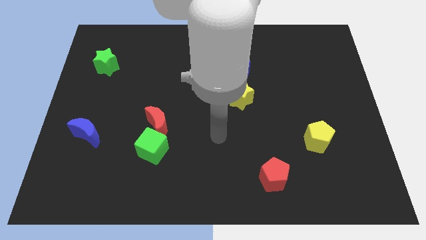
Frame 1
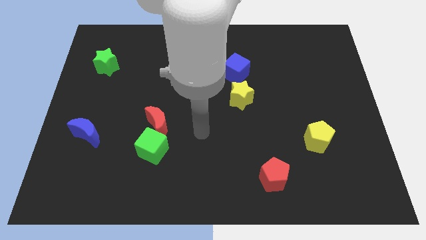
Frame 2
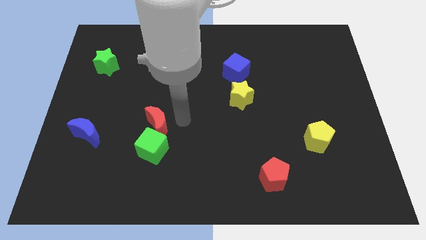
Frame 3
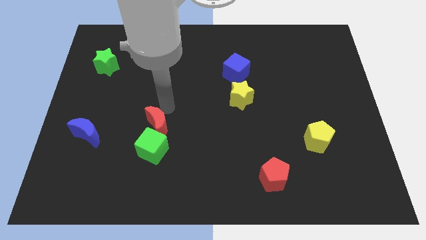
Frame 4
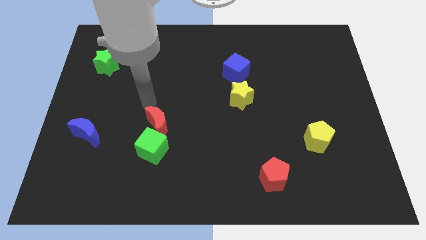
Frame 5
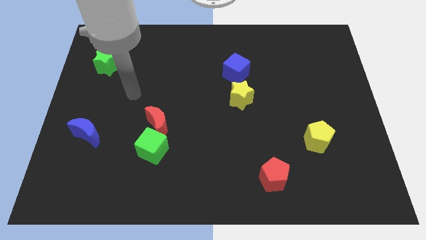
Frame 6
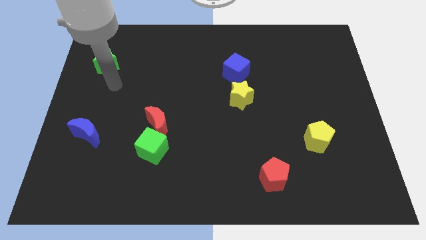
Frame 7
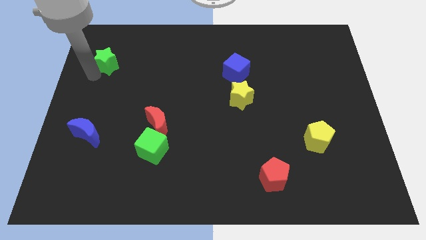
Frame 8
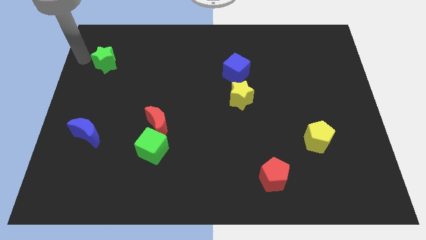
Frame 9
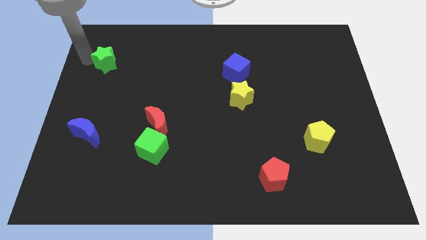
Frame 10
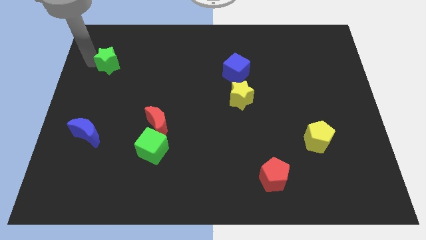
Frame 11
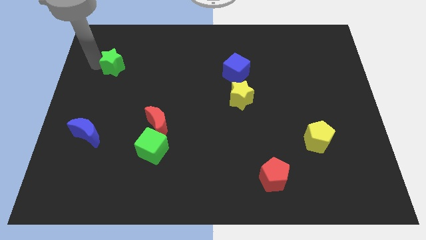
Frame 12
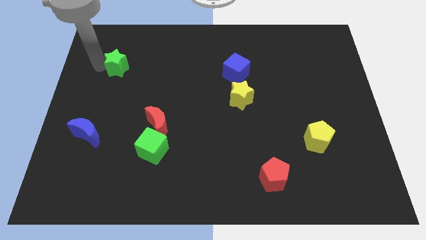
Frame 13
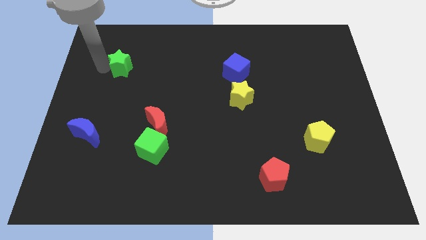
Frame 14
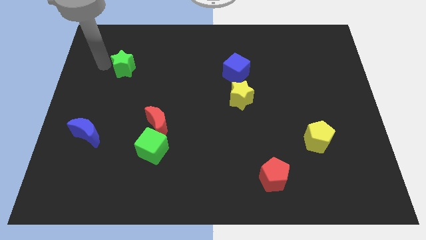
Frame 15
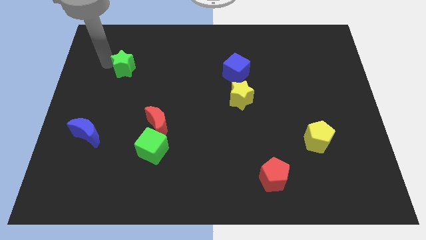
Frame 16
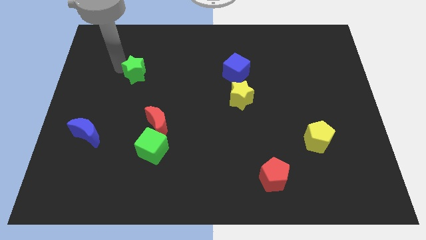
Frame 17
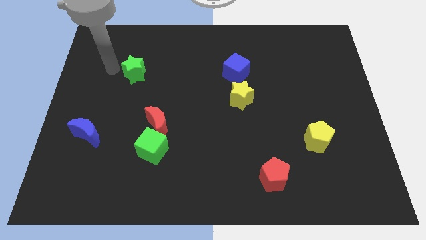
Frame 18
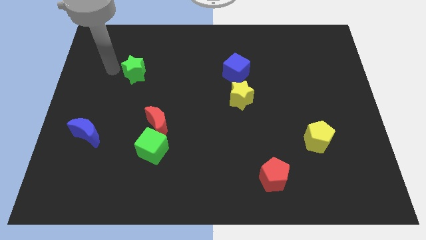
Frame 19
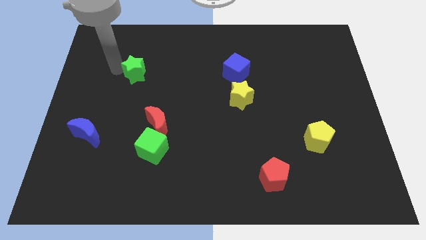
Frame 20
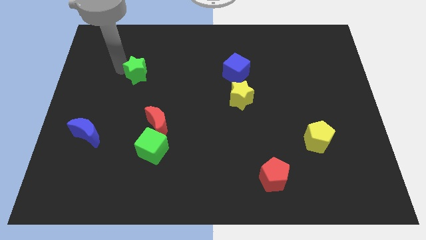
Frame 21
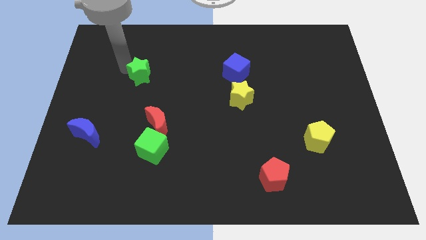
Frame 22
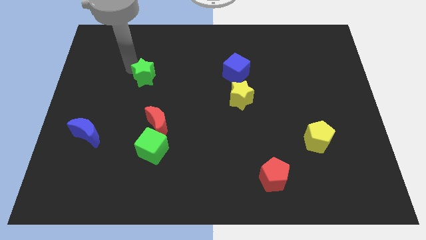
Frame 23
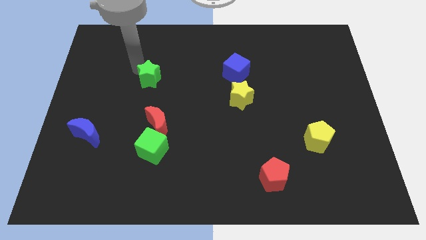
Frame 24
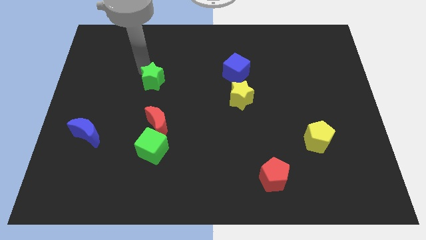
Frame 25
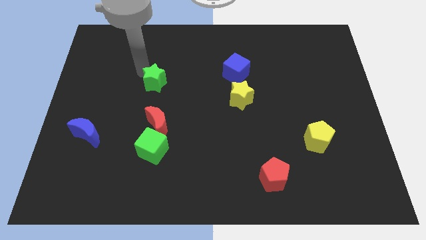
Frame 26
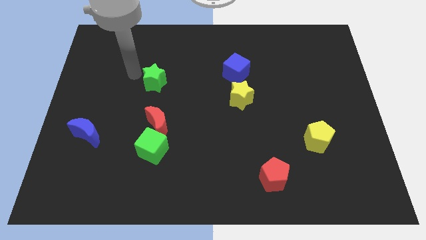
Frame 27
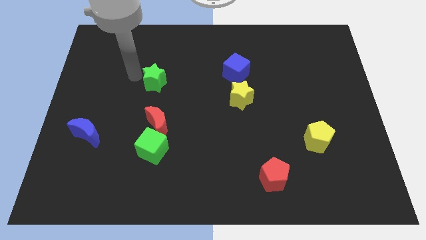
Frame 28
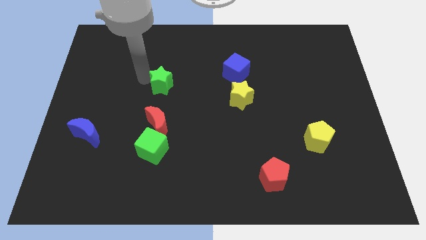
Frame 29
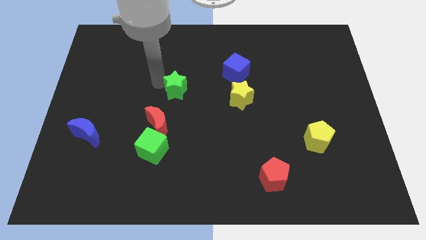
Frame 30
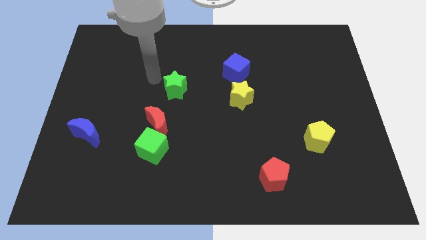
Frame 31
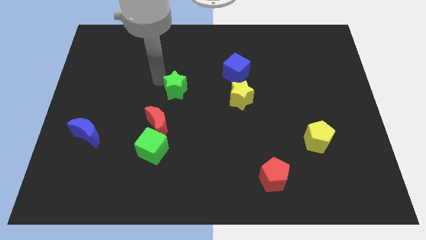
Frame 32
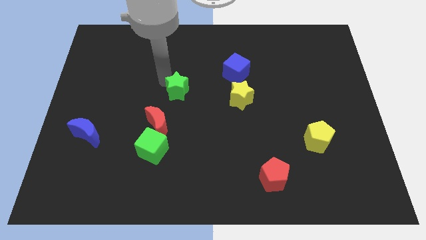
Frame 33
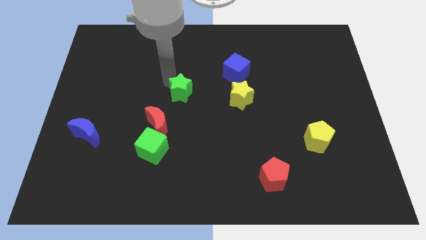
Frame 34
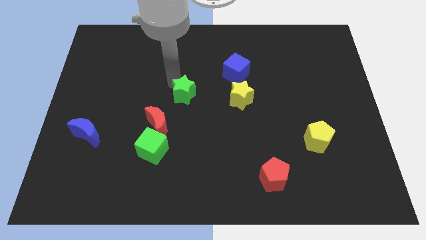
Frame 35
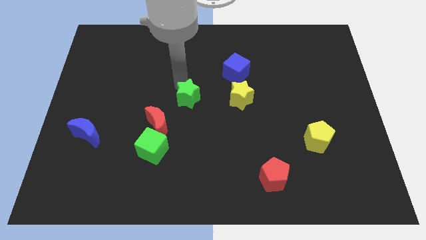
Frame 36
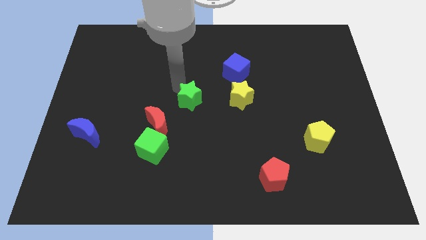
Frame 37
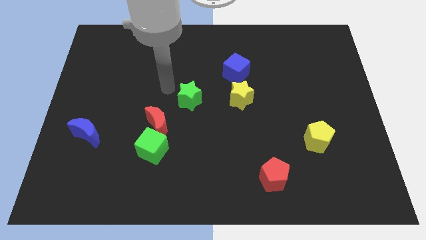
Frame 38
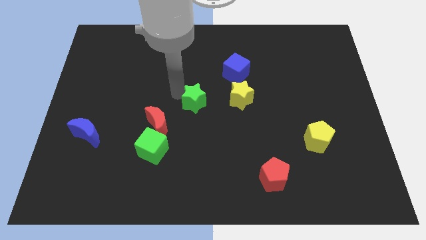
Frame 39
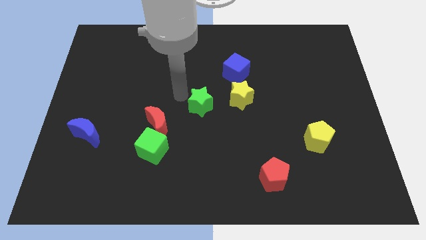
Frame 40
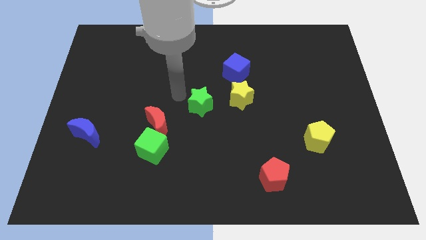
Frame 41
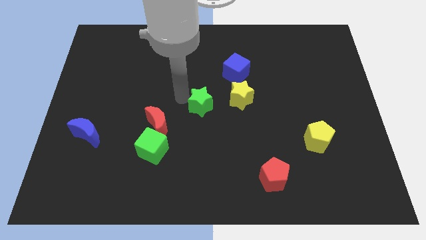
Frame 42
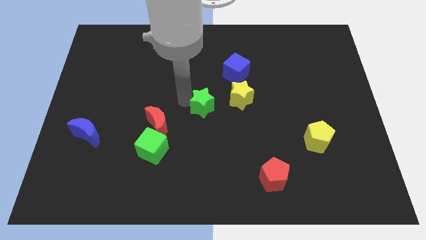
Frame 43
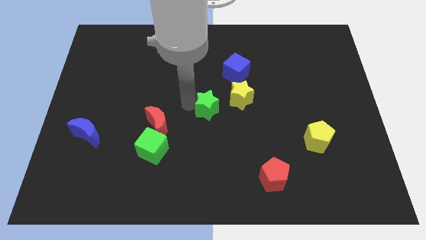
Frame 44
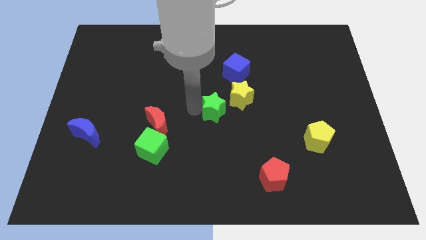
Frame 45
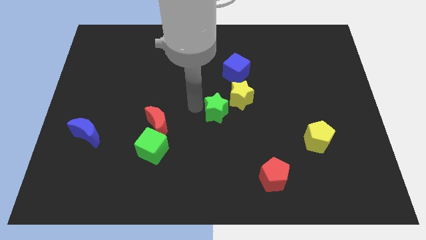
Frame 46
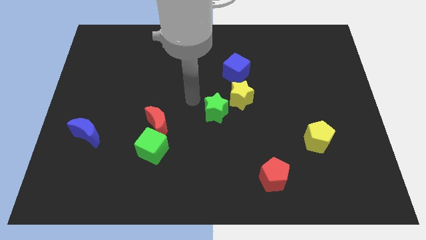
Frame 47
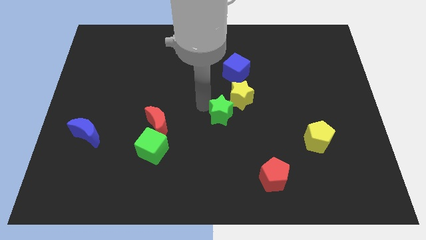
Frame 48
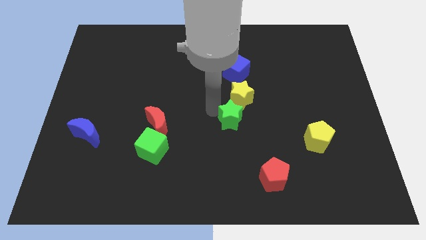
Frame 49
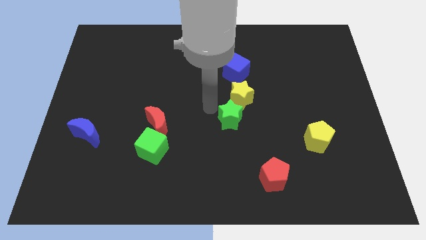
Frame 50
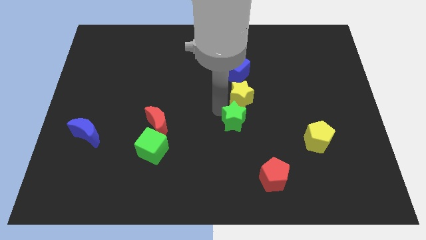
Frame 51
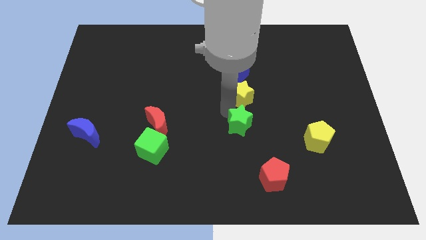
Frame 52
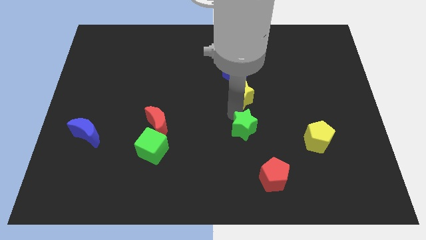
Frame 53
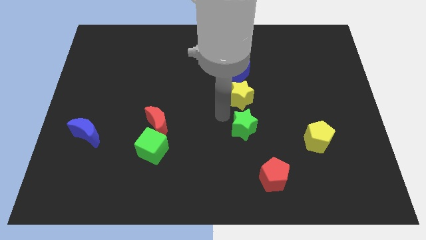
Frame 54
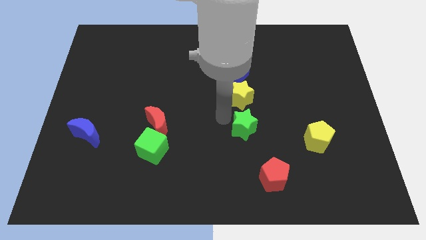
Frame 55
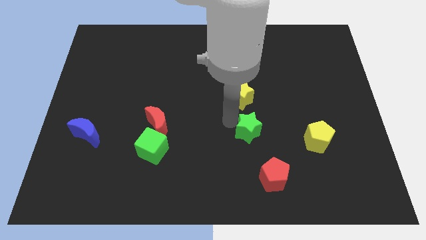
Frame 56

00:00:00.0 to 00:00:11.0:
slide the green star to the left of the yellow pentagon
